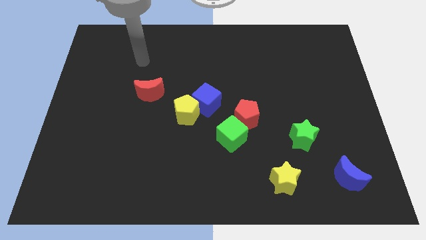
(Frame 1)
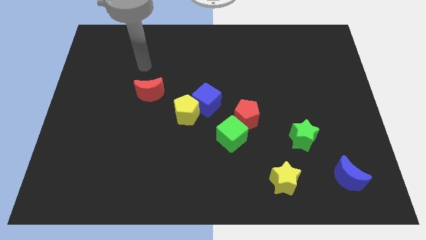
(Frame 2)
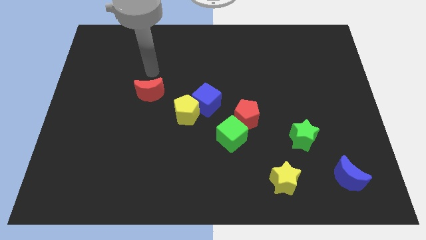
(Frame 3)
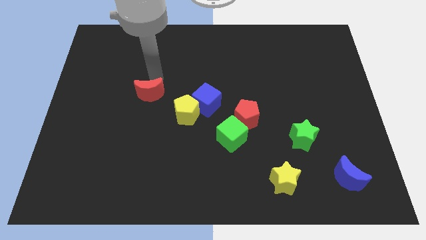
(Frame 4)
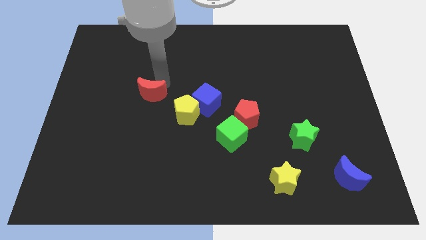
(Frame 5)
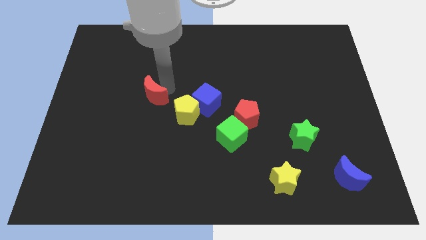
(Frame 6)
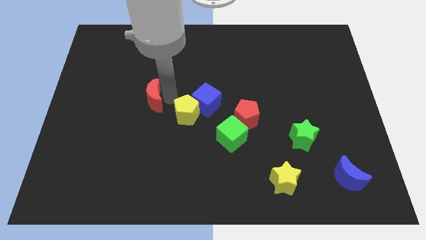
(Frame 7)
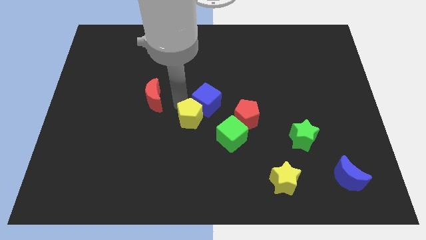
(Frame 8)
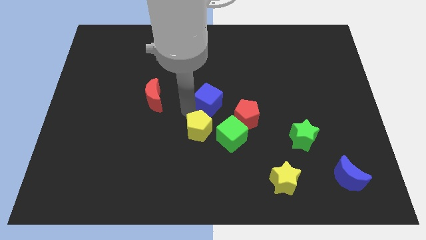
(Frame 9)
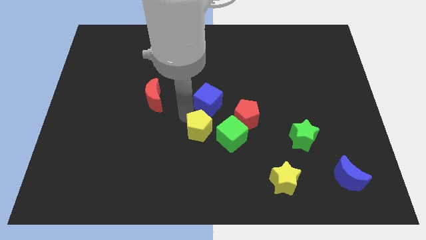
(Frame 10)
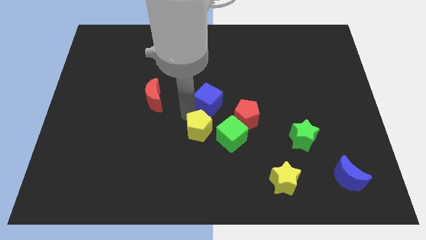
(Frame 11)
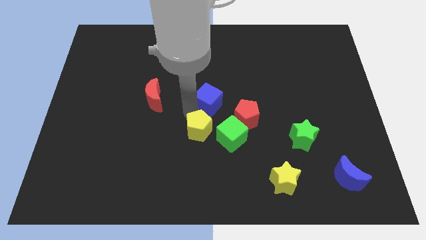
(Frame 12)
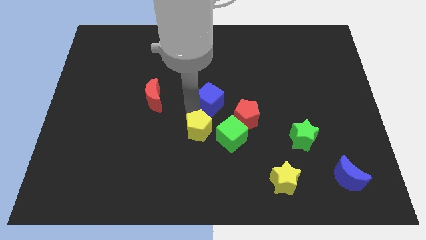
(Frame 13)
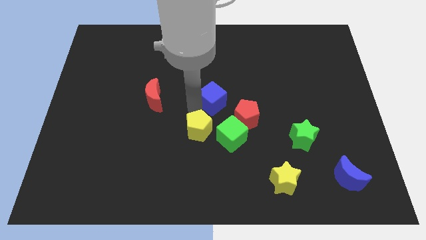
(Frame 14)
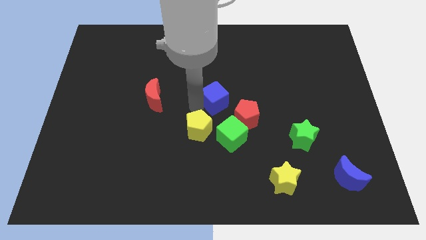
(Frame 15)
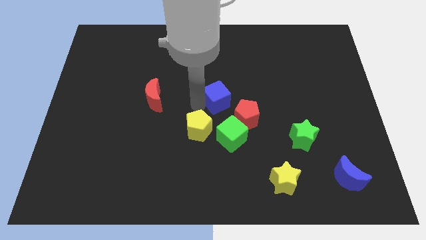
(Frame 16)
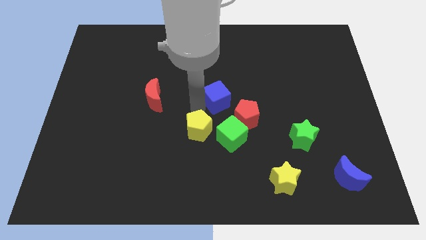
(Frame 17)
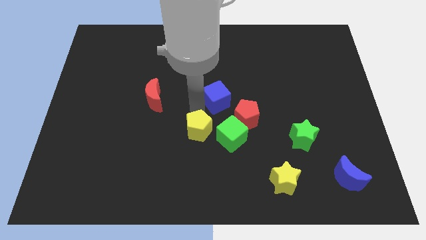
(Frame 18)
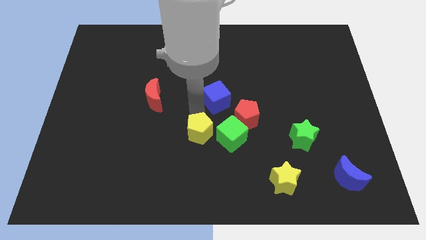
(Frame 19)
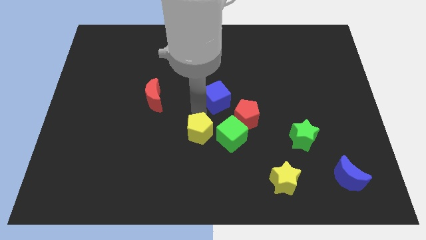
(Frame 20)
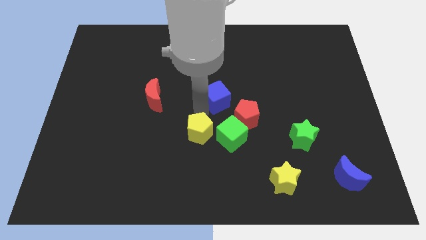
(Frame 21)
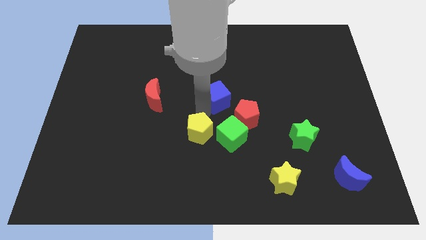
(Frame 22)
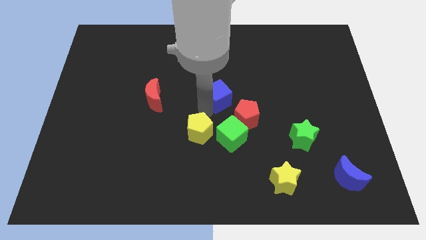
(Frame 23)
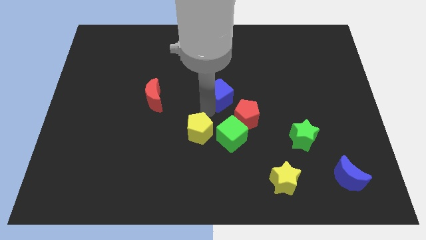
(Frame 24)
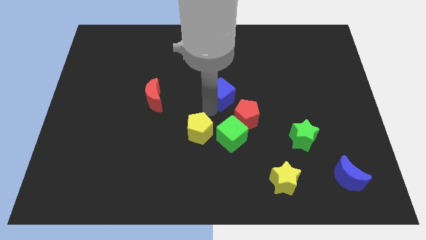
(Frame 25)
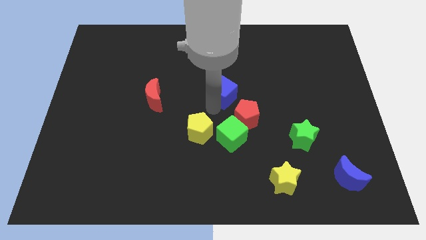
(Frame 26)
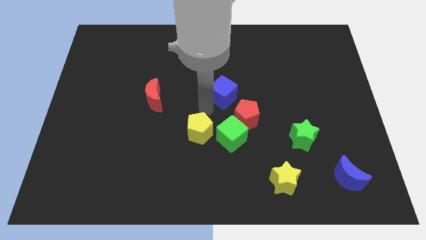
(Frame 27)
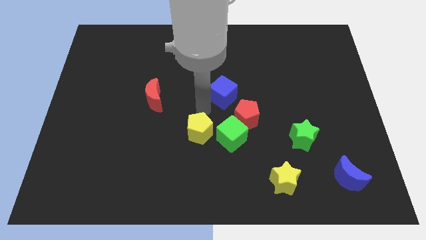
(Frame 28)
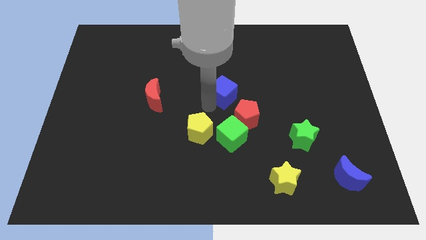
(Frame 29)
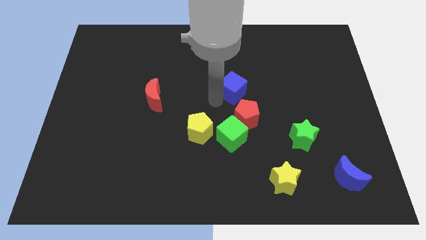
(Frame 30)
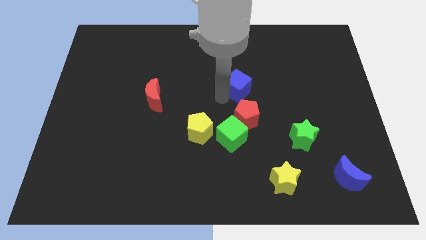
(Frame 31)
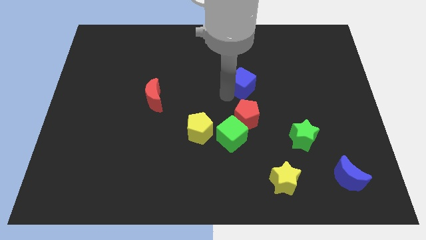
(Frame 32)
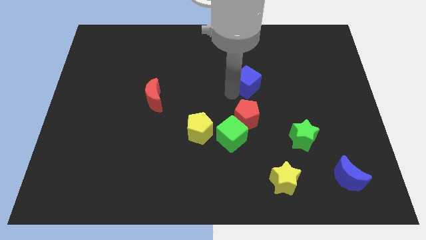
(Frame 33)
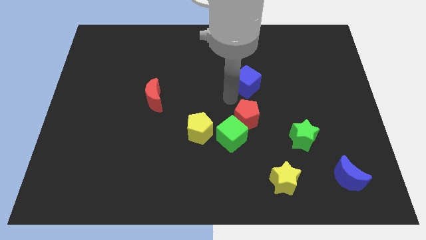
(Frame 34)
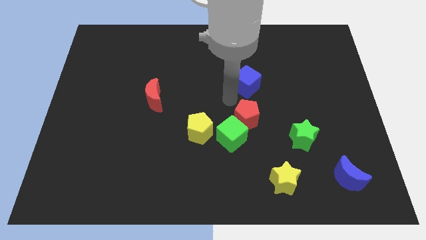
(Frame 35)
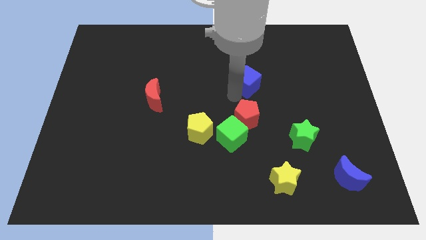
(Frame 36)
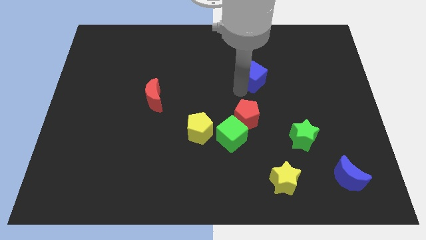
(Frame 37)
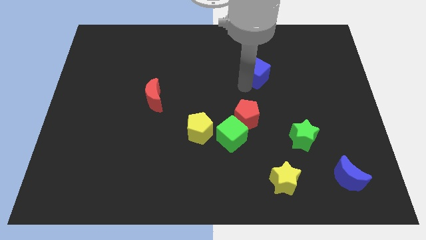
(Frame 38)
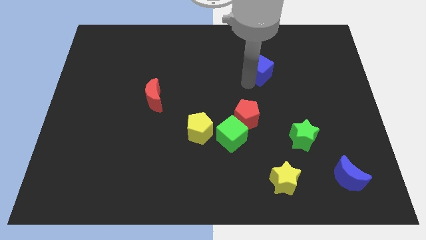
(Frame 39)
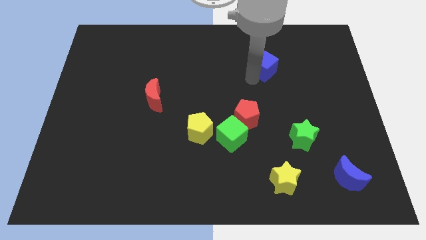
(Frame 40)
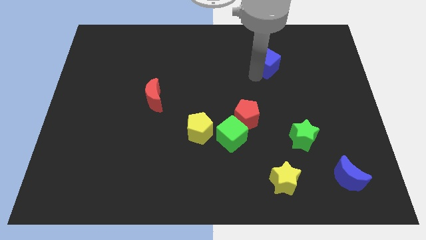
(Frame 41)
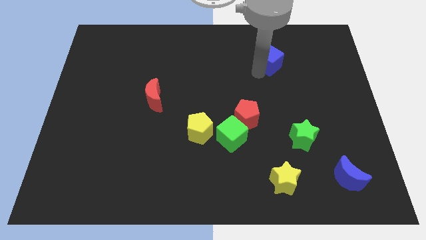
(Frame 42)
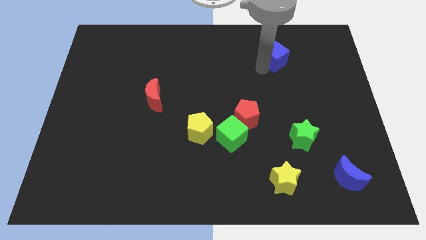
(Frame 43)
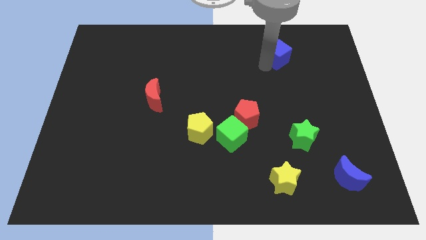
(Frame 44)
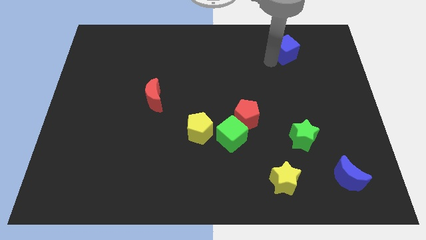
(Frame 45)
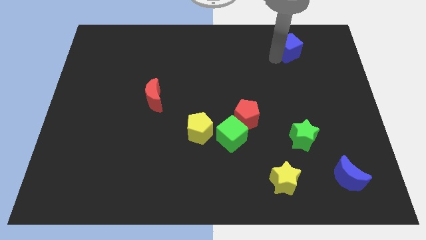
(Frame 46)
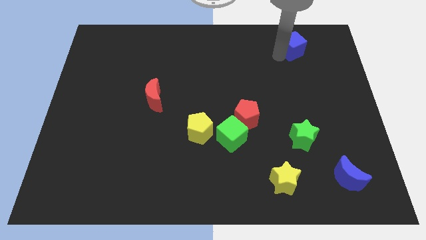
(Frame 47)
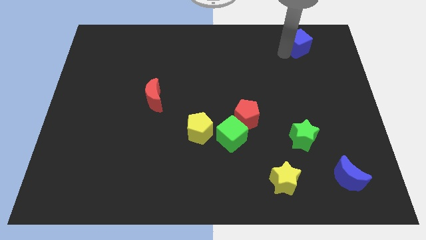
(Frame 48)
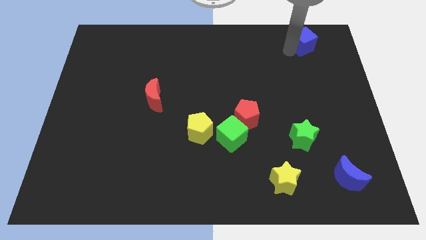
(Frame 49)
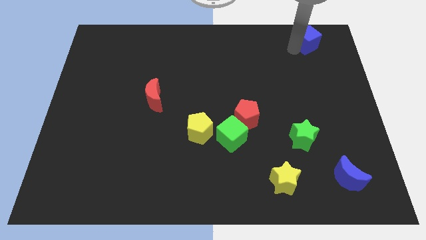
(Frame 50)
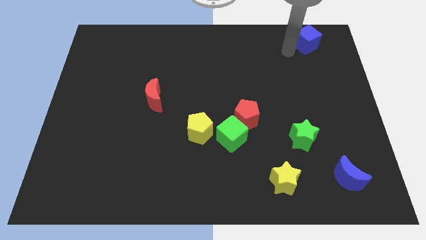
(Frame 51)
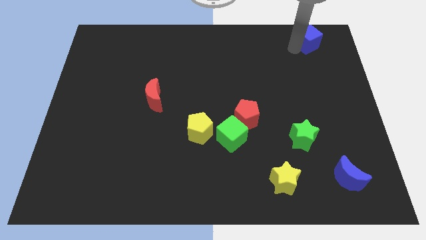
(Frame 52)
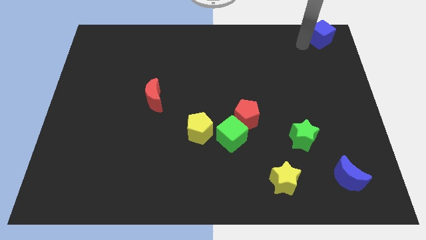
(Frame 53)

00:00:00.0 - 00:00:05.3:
move the blue cube to the top right corner

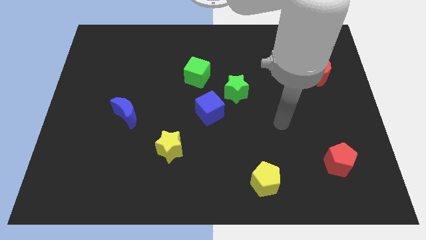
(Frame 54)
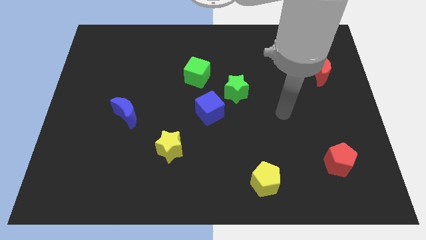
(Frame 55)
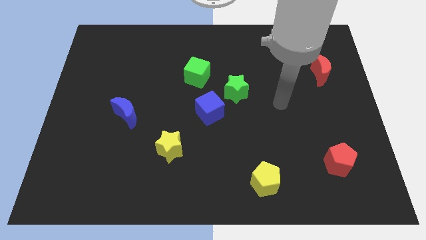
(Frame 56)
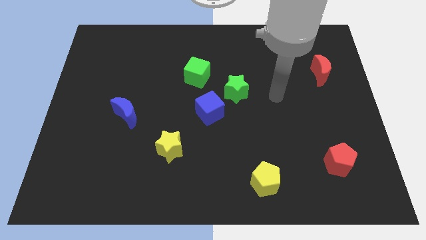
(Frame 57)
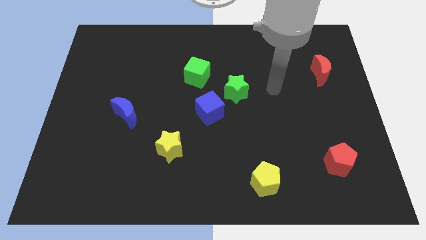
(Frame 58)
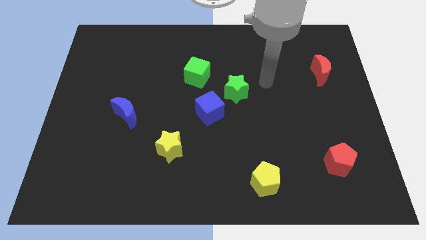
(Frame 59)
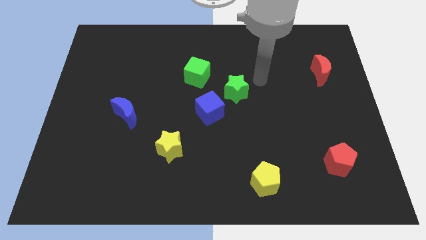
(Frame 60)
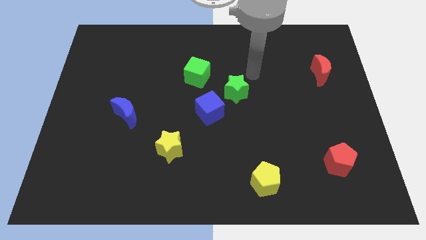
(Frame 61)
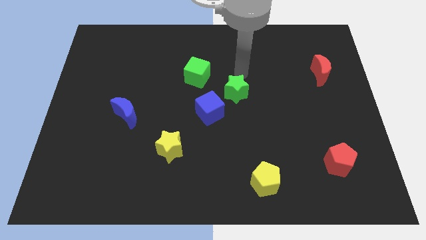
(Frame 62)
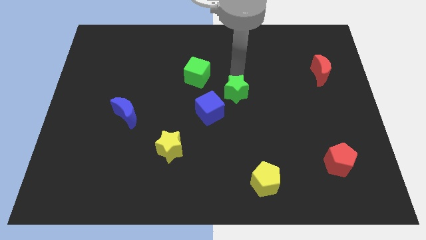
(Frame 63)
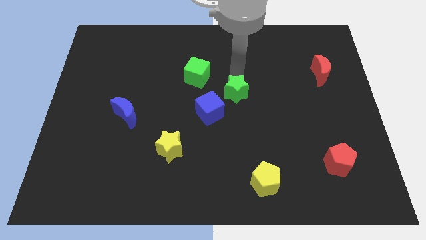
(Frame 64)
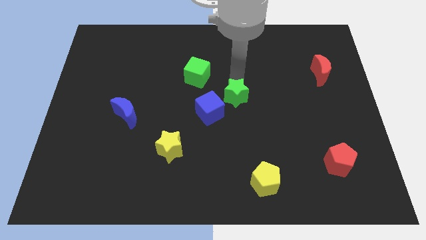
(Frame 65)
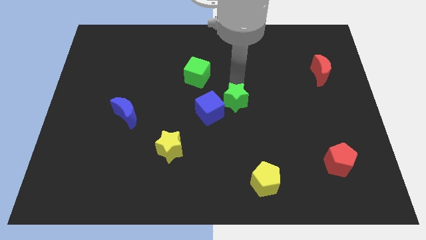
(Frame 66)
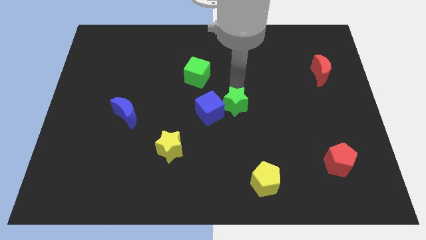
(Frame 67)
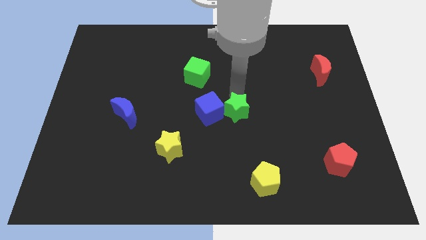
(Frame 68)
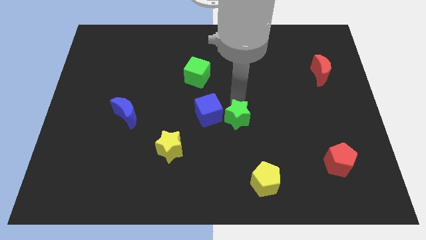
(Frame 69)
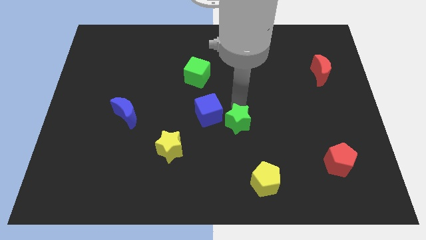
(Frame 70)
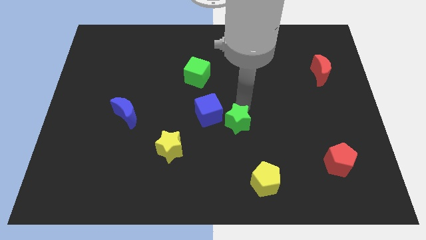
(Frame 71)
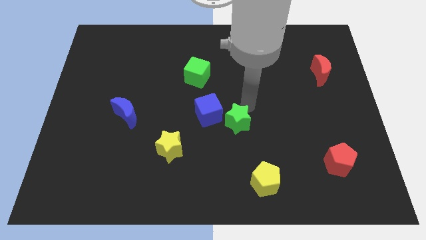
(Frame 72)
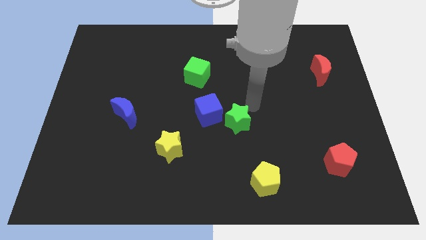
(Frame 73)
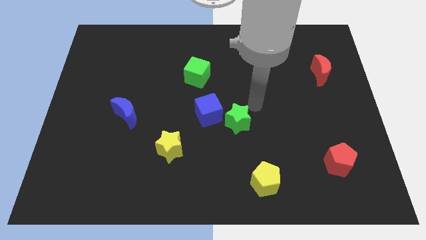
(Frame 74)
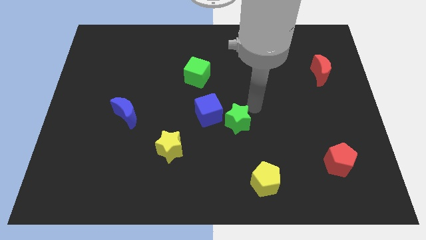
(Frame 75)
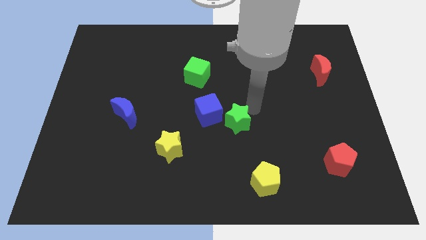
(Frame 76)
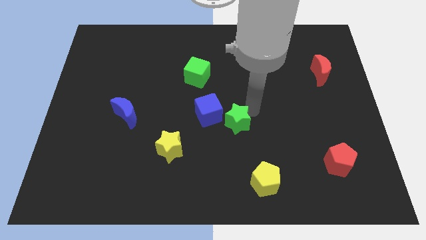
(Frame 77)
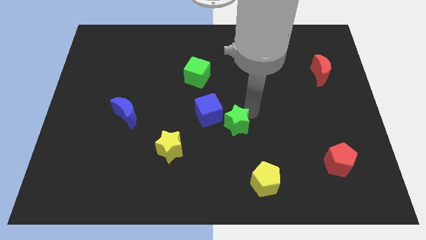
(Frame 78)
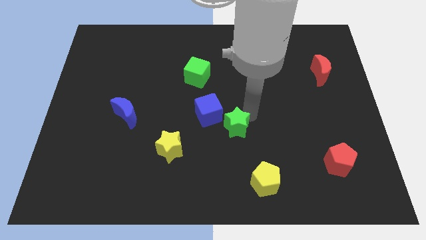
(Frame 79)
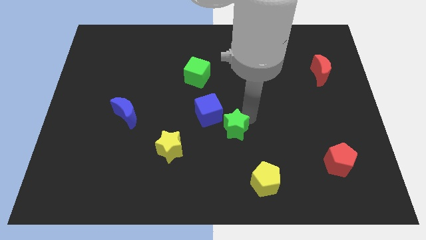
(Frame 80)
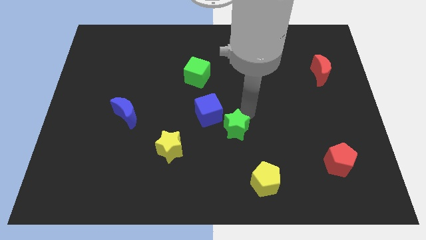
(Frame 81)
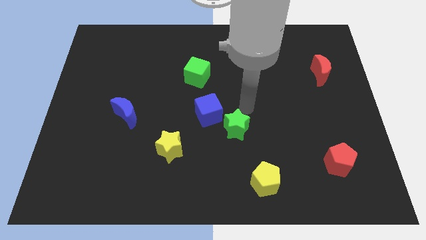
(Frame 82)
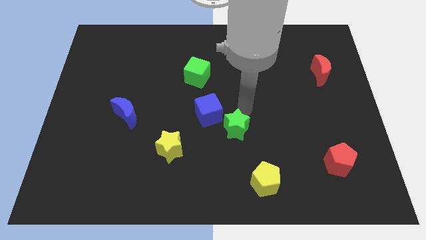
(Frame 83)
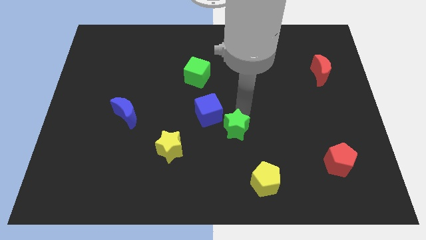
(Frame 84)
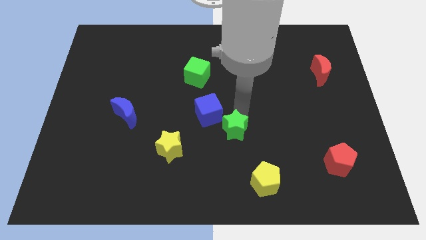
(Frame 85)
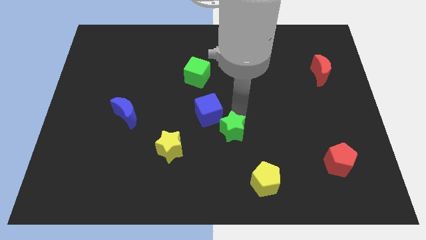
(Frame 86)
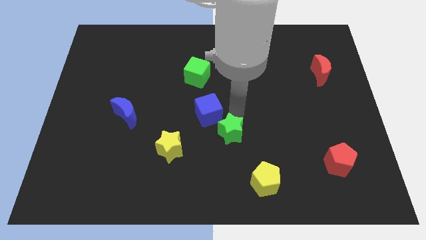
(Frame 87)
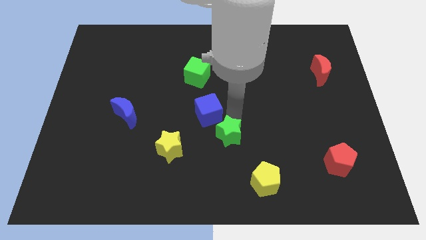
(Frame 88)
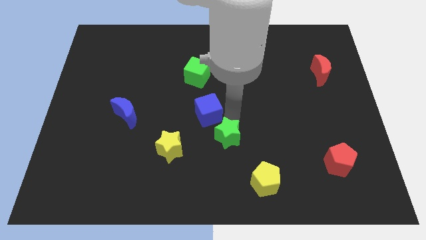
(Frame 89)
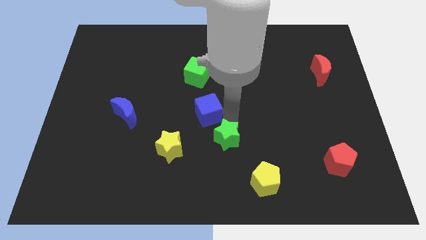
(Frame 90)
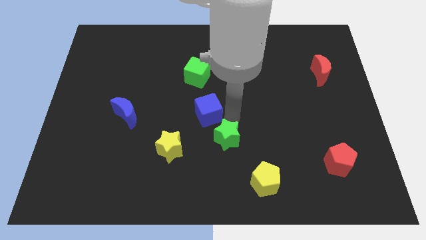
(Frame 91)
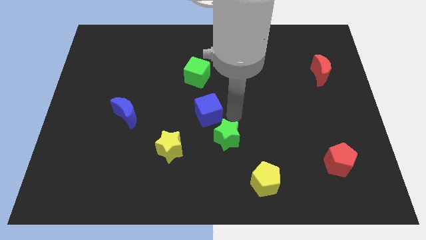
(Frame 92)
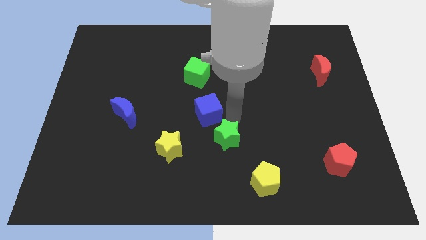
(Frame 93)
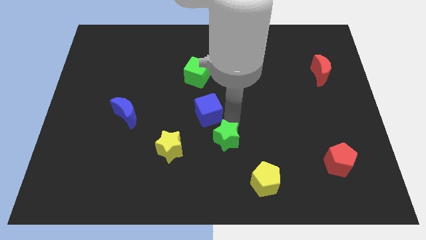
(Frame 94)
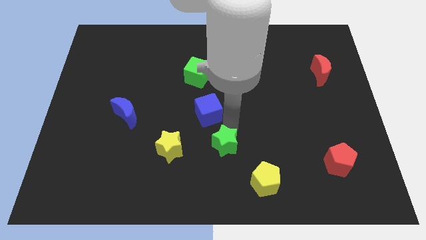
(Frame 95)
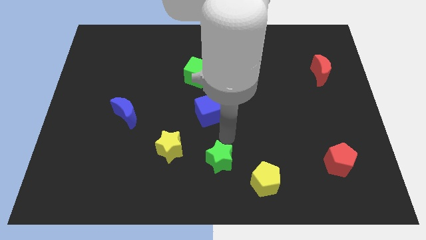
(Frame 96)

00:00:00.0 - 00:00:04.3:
push the green star to the bottom side
